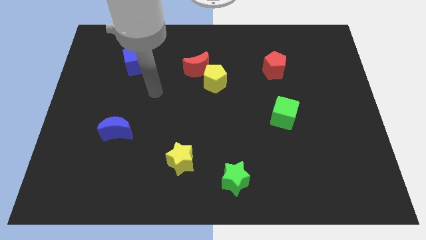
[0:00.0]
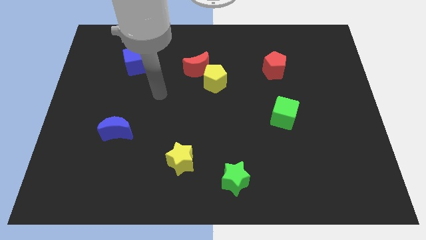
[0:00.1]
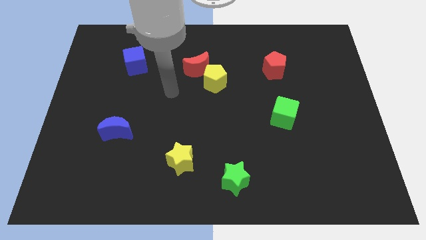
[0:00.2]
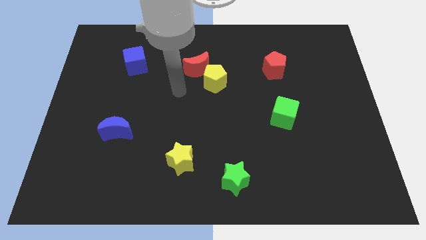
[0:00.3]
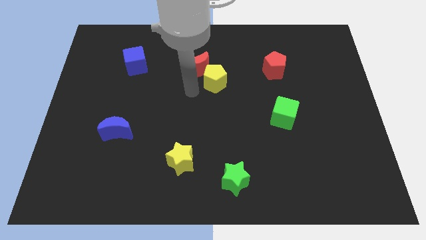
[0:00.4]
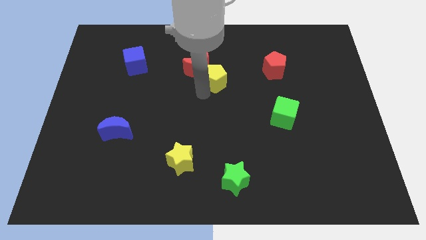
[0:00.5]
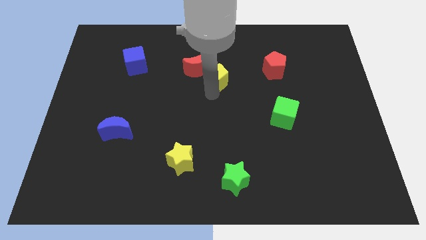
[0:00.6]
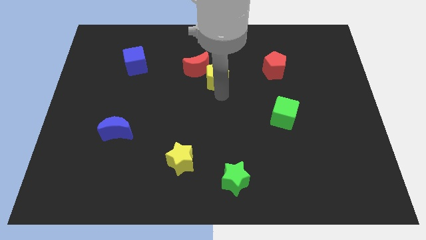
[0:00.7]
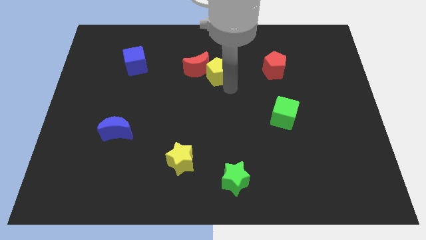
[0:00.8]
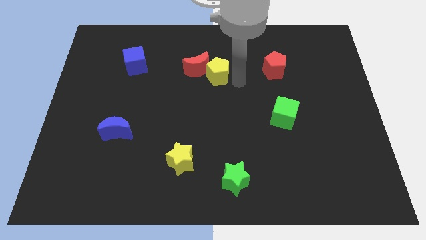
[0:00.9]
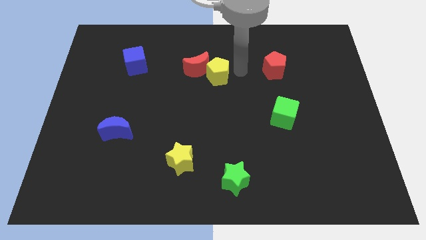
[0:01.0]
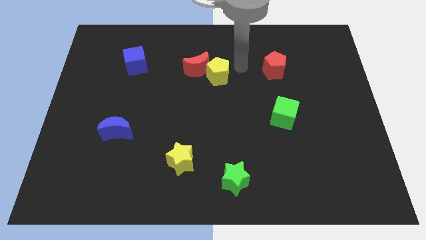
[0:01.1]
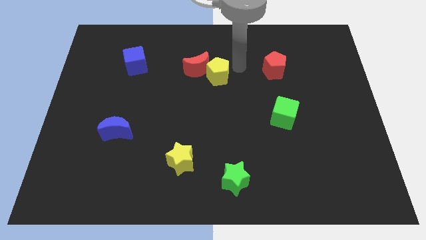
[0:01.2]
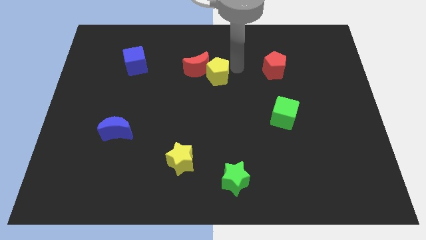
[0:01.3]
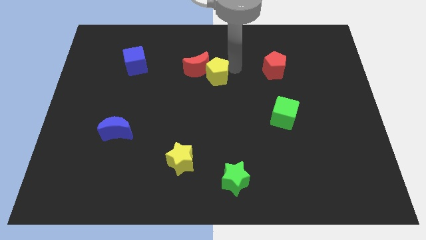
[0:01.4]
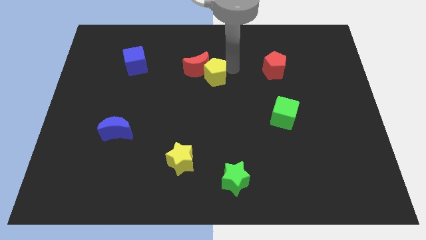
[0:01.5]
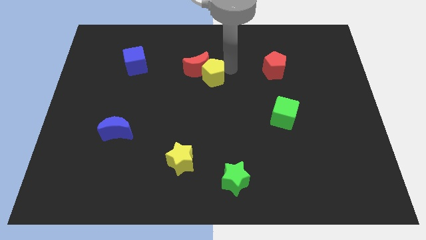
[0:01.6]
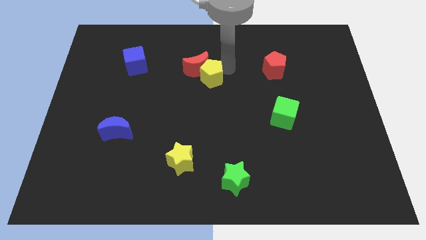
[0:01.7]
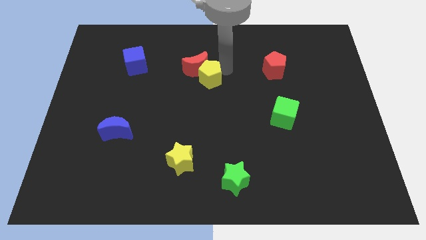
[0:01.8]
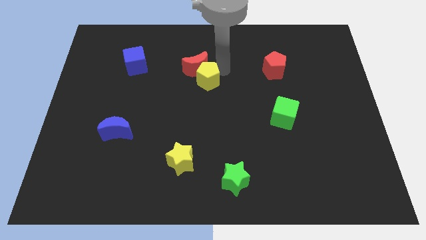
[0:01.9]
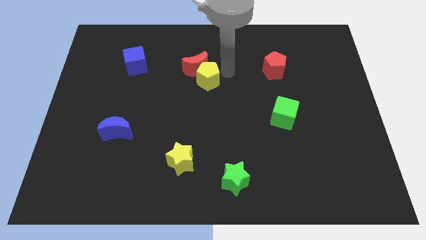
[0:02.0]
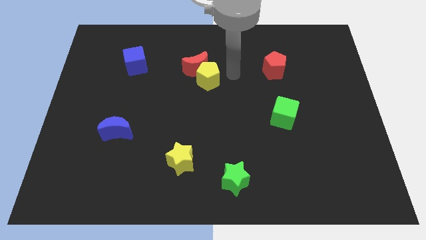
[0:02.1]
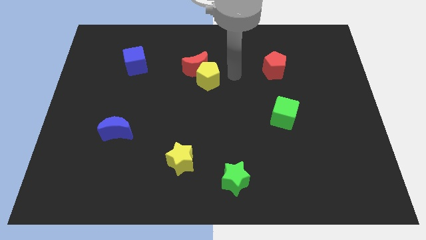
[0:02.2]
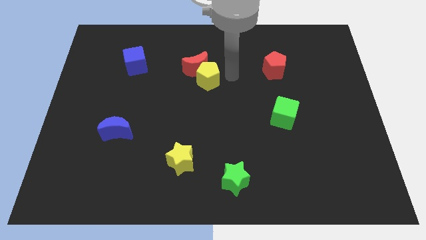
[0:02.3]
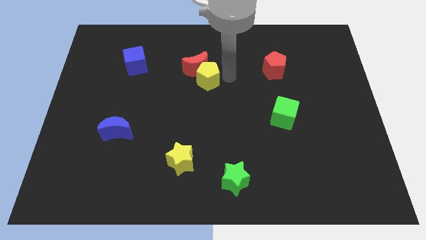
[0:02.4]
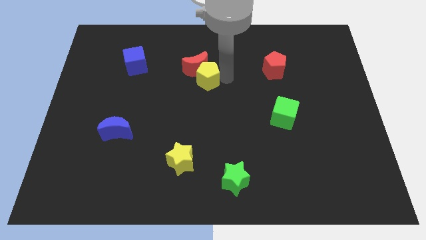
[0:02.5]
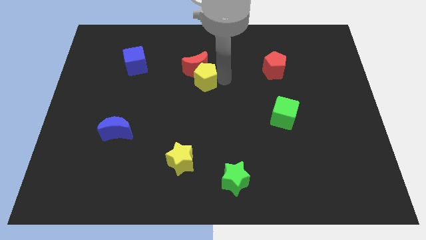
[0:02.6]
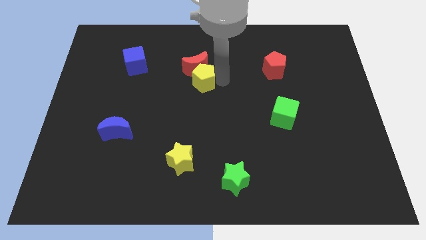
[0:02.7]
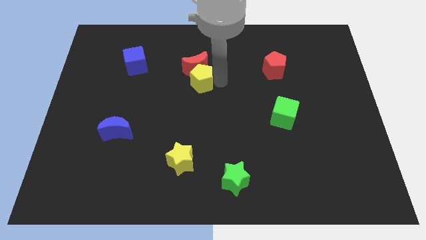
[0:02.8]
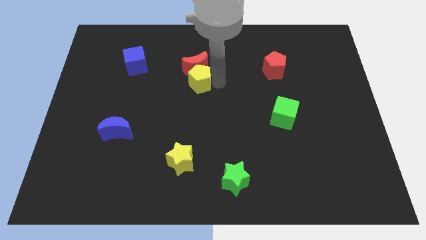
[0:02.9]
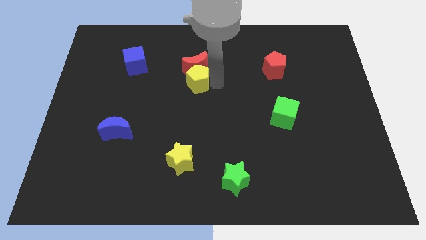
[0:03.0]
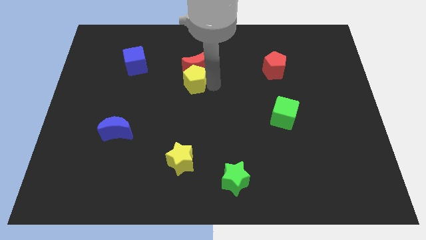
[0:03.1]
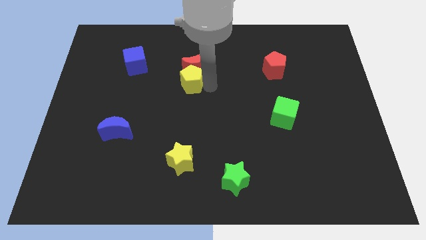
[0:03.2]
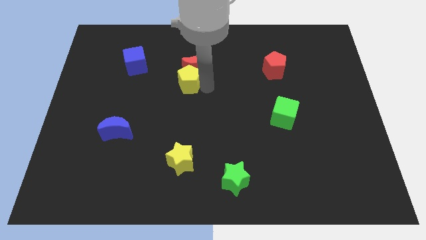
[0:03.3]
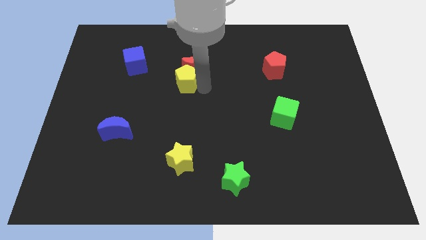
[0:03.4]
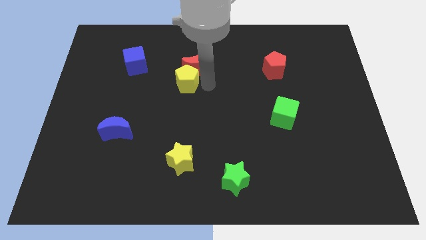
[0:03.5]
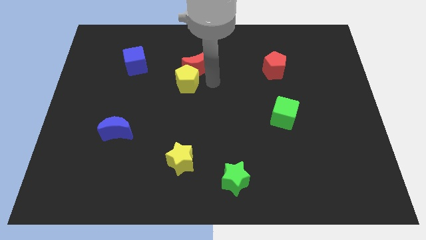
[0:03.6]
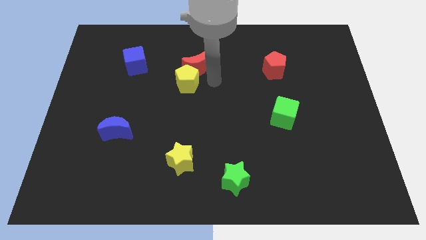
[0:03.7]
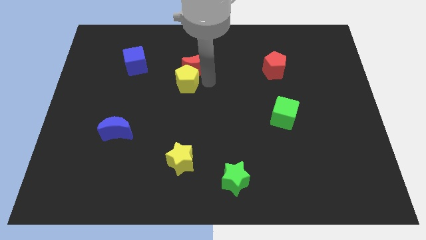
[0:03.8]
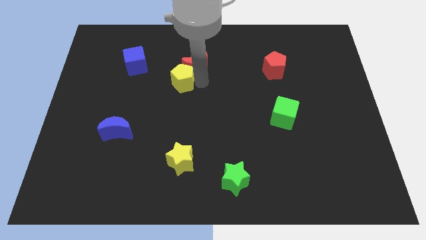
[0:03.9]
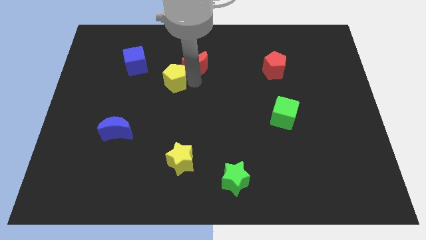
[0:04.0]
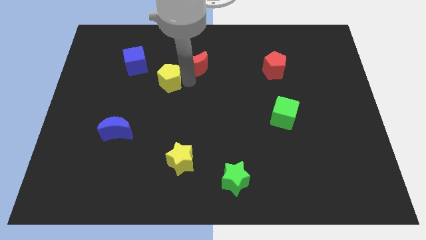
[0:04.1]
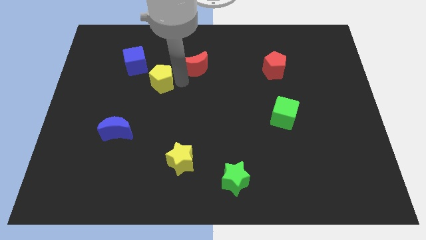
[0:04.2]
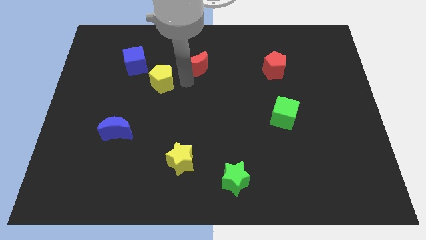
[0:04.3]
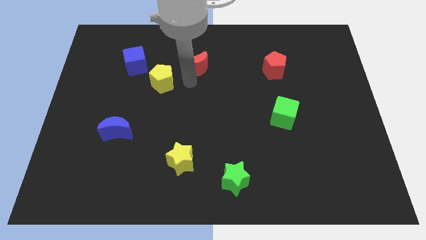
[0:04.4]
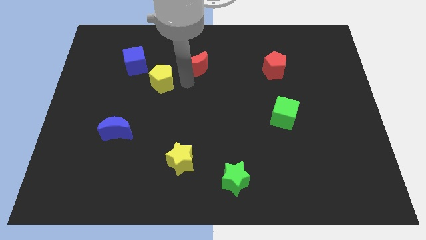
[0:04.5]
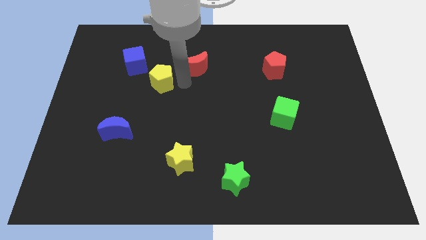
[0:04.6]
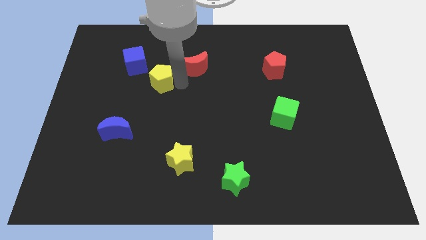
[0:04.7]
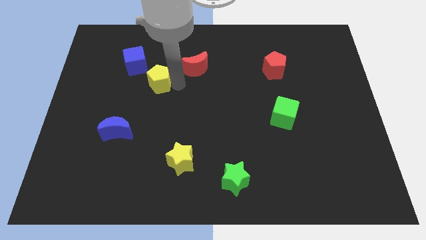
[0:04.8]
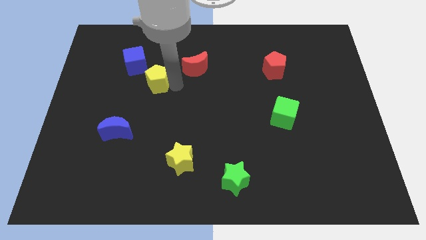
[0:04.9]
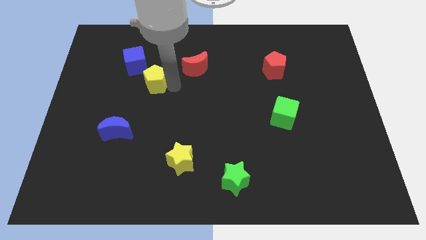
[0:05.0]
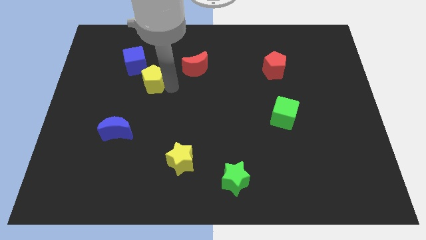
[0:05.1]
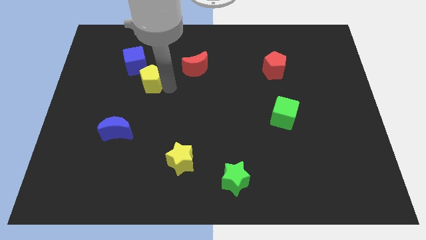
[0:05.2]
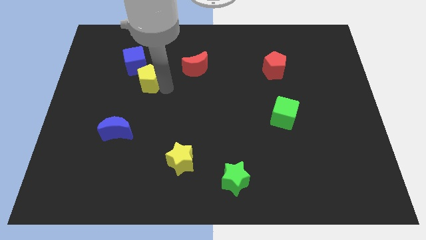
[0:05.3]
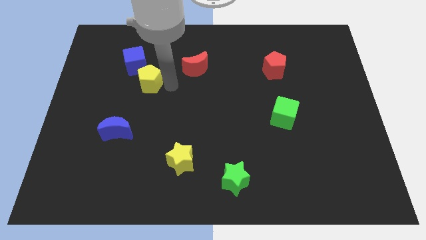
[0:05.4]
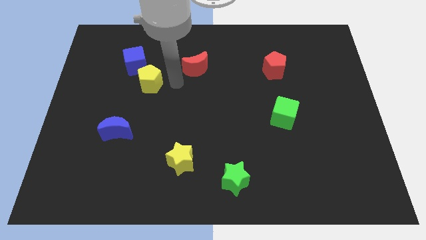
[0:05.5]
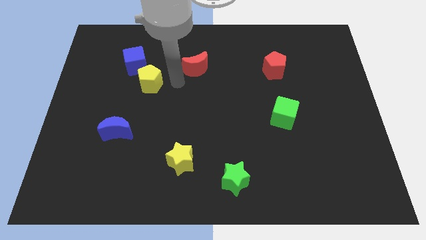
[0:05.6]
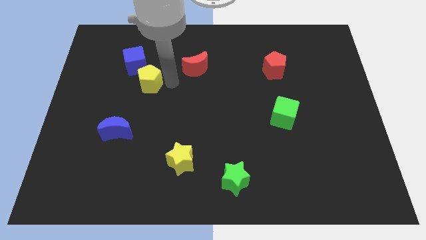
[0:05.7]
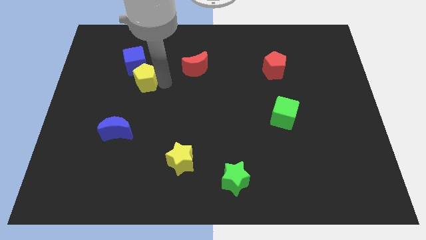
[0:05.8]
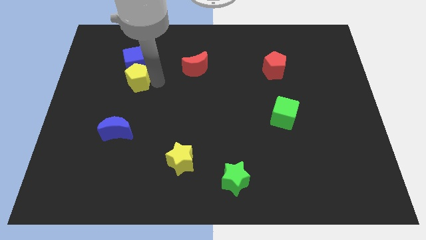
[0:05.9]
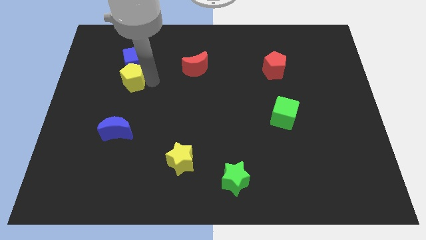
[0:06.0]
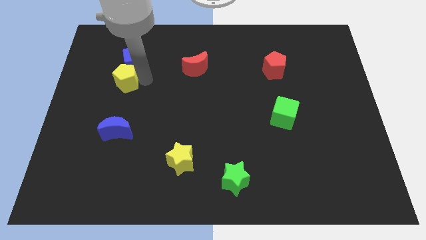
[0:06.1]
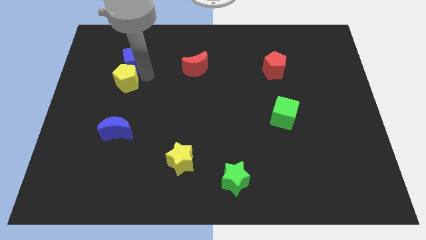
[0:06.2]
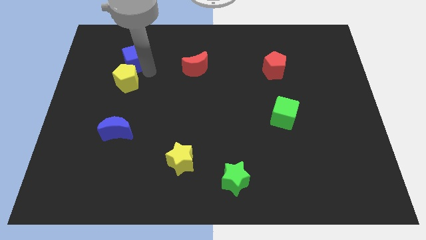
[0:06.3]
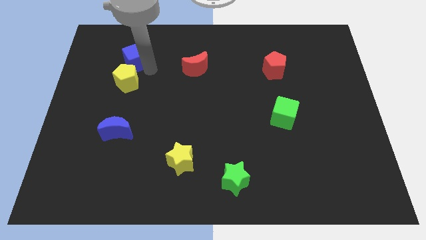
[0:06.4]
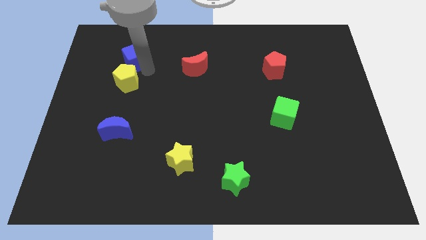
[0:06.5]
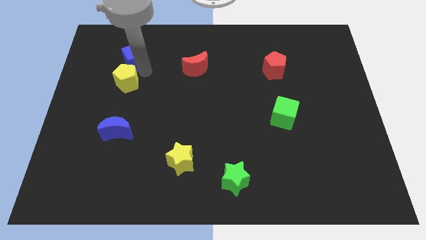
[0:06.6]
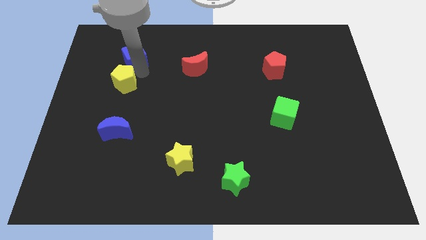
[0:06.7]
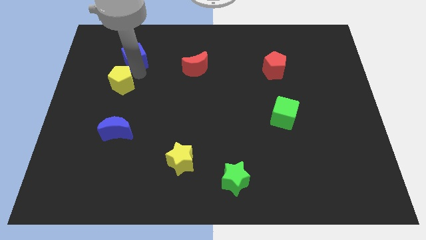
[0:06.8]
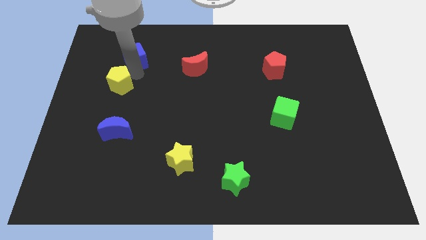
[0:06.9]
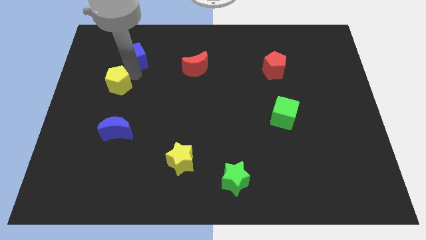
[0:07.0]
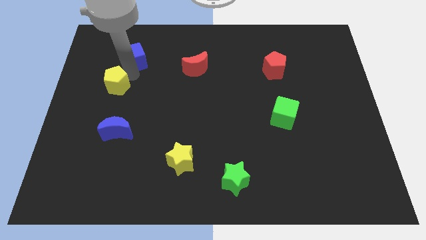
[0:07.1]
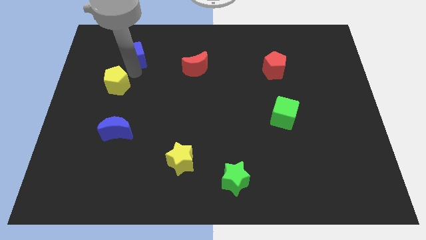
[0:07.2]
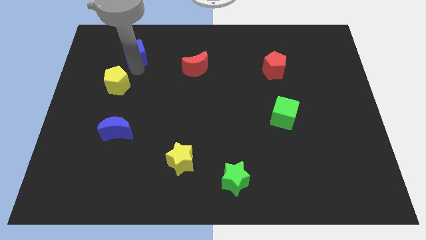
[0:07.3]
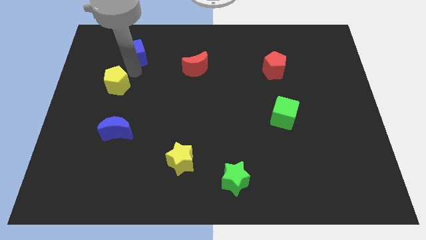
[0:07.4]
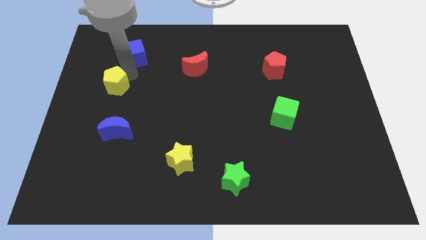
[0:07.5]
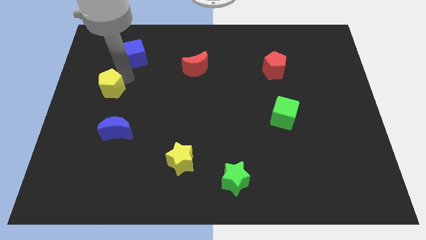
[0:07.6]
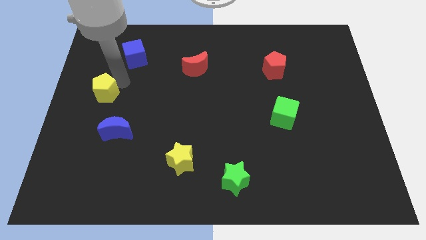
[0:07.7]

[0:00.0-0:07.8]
put the yellow pentagon to the left side of the board
